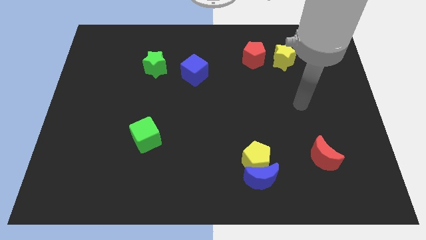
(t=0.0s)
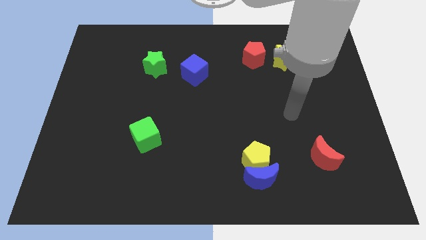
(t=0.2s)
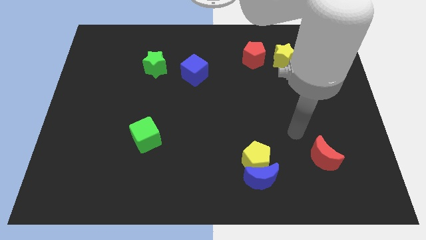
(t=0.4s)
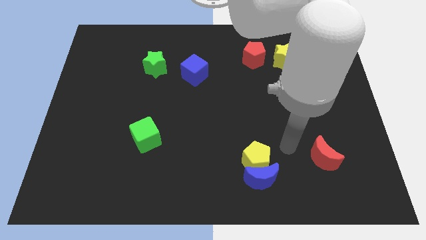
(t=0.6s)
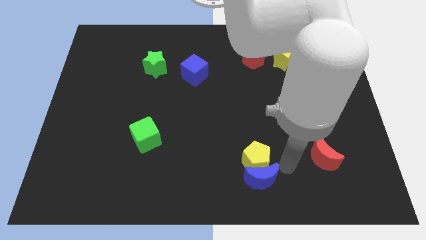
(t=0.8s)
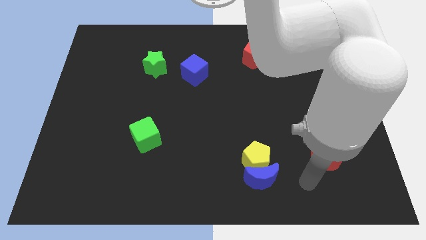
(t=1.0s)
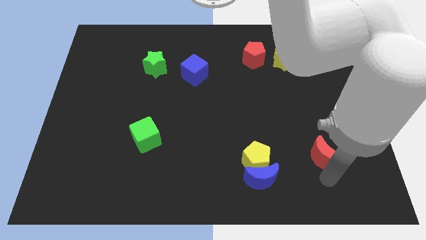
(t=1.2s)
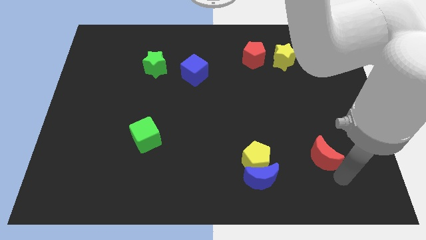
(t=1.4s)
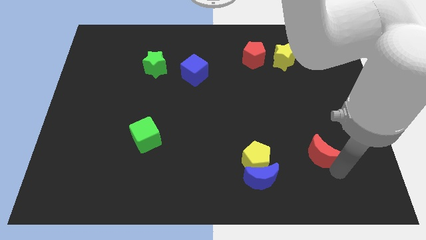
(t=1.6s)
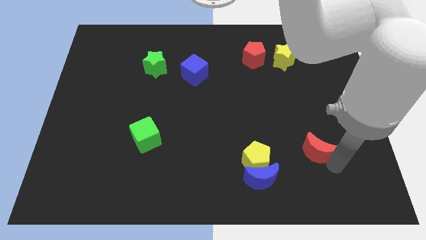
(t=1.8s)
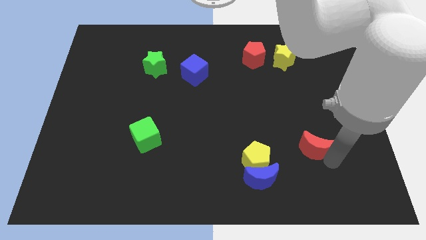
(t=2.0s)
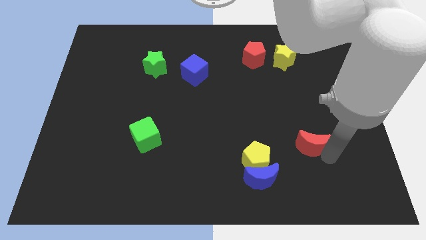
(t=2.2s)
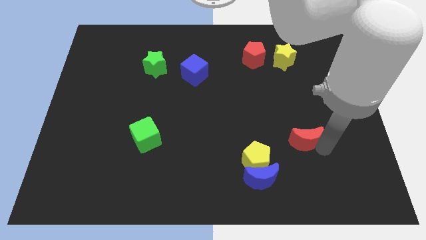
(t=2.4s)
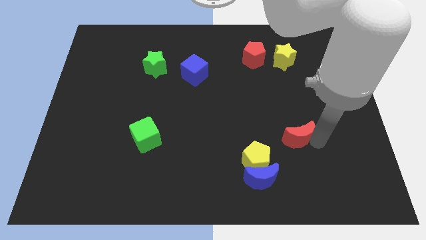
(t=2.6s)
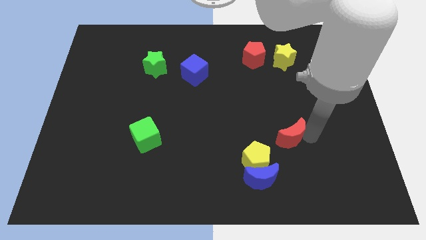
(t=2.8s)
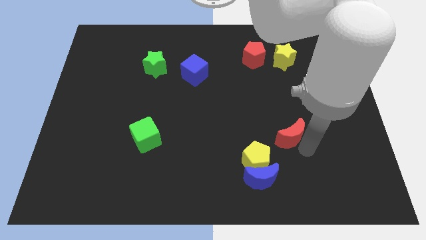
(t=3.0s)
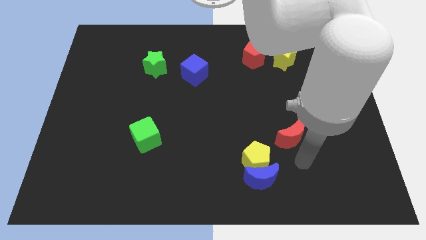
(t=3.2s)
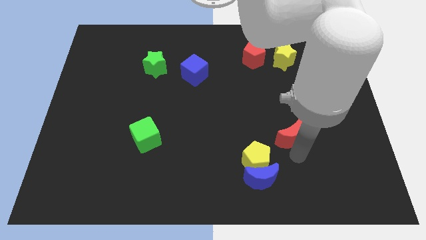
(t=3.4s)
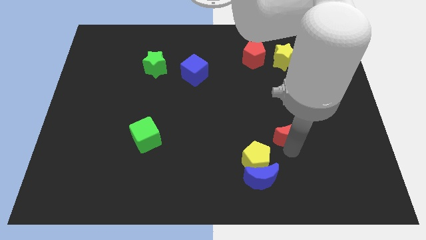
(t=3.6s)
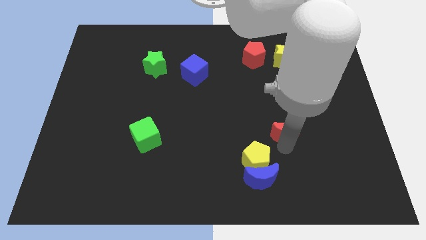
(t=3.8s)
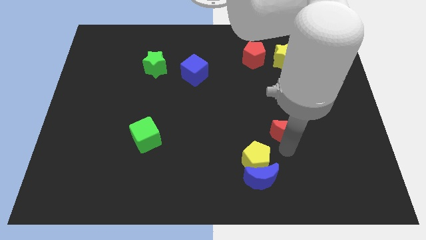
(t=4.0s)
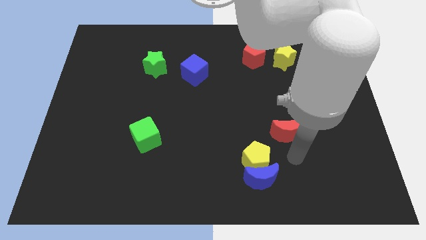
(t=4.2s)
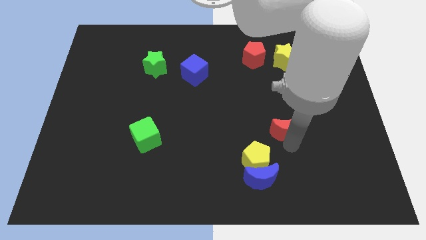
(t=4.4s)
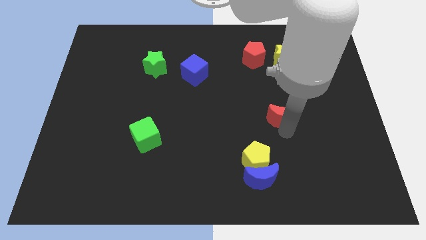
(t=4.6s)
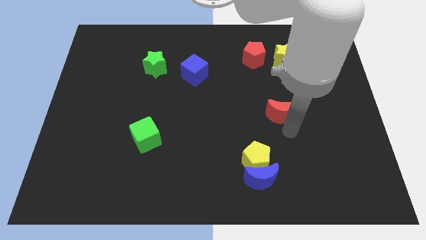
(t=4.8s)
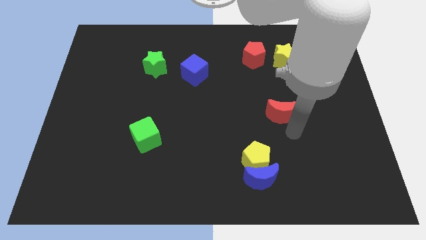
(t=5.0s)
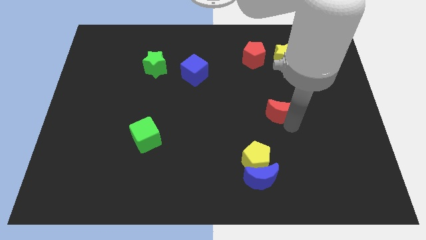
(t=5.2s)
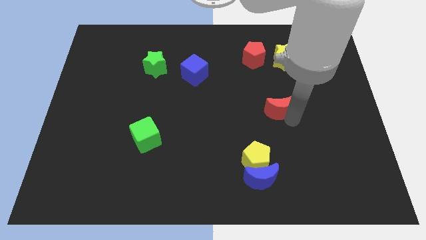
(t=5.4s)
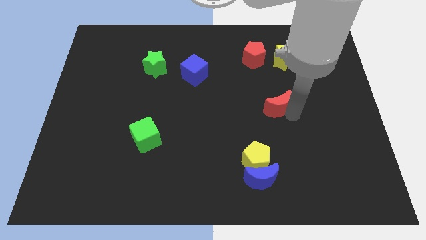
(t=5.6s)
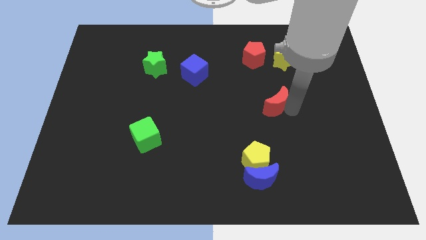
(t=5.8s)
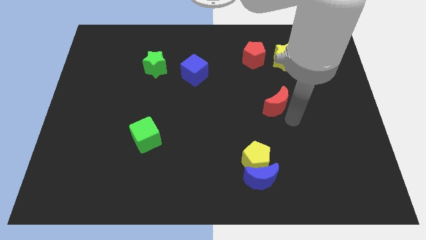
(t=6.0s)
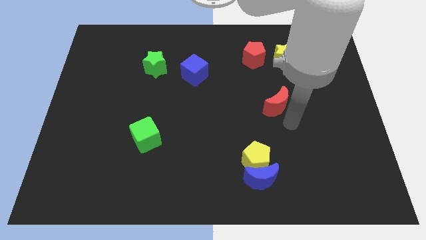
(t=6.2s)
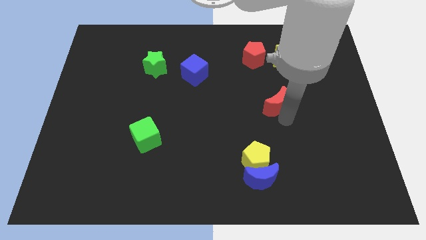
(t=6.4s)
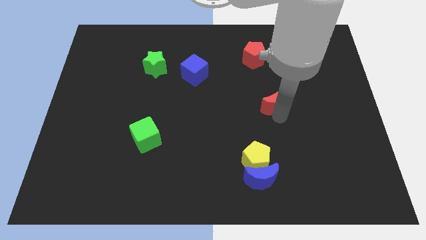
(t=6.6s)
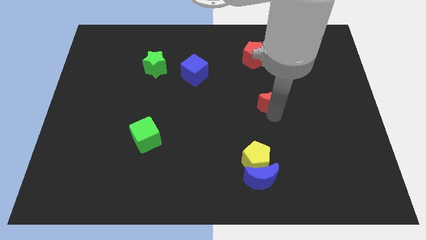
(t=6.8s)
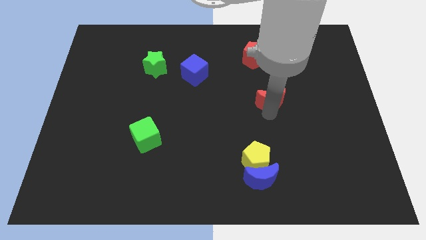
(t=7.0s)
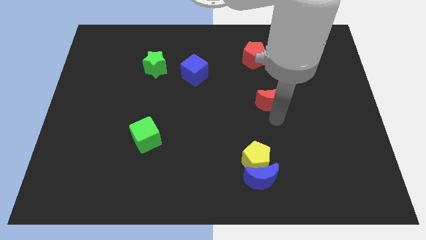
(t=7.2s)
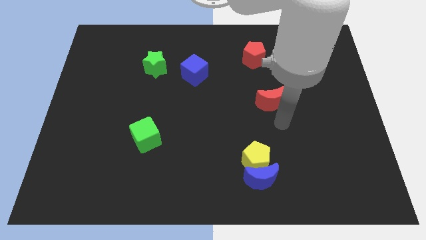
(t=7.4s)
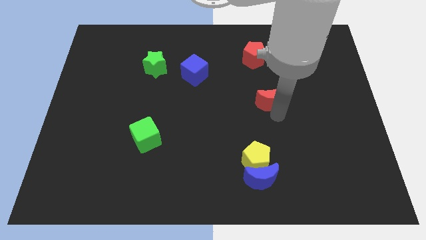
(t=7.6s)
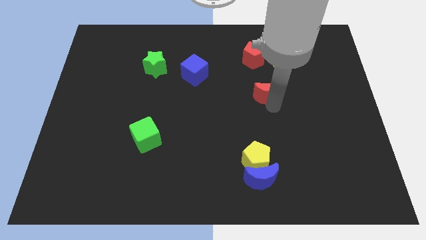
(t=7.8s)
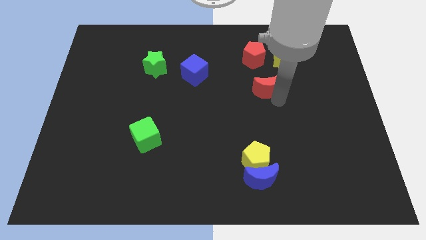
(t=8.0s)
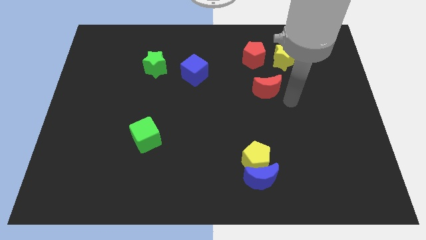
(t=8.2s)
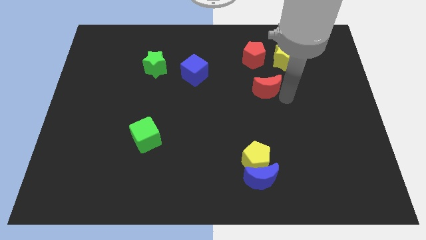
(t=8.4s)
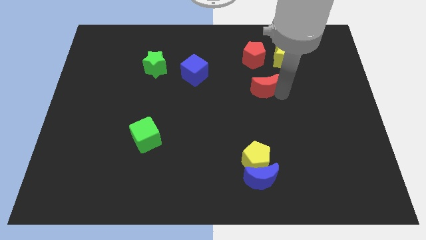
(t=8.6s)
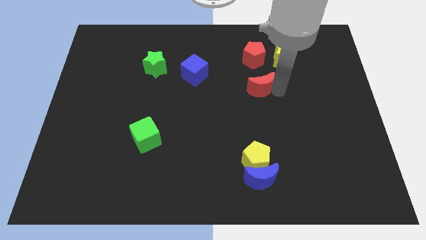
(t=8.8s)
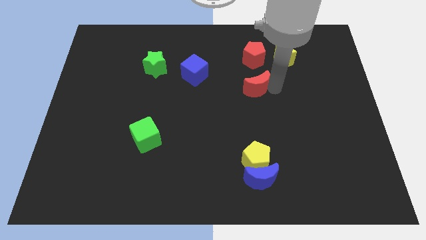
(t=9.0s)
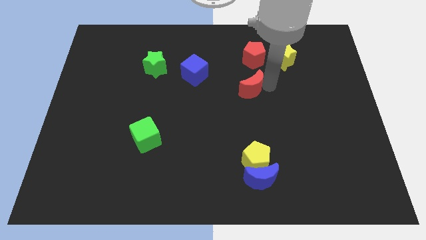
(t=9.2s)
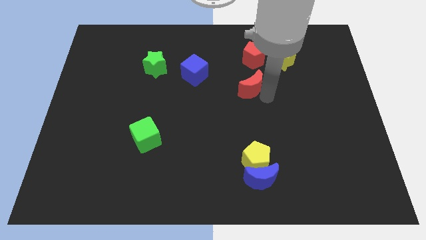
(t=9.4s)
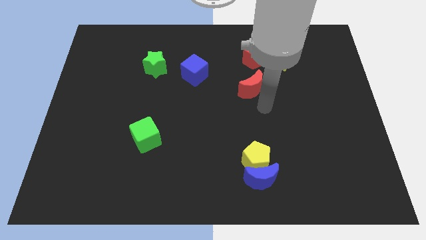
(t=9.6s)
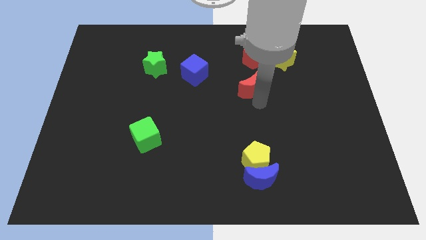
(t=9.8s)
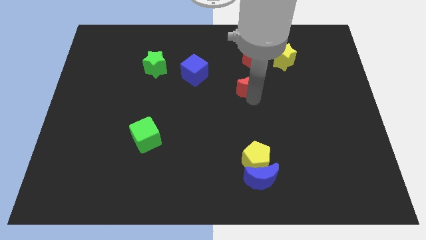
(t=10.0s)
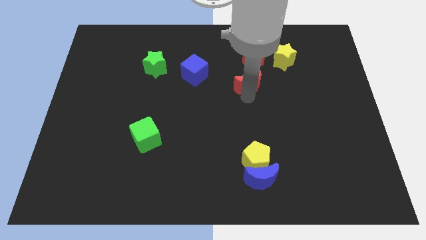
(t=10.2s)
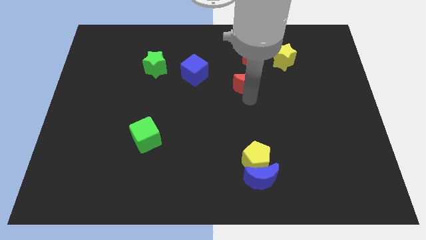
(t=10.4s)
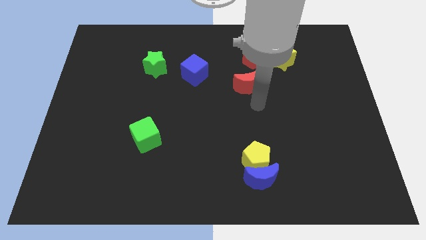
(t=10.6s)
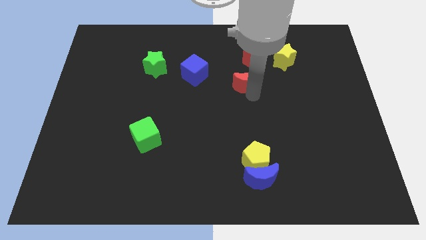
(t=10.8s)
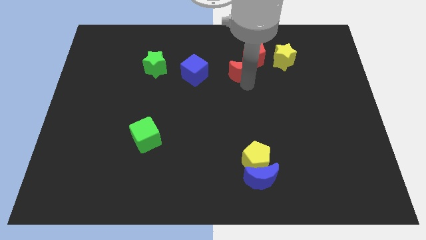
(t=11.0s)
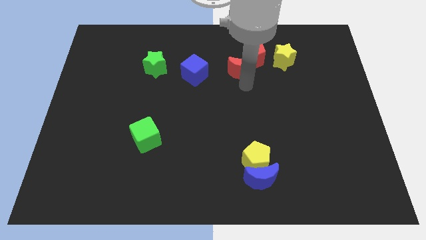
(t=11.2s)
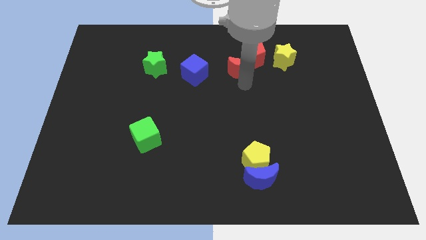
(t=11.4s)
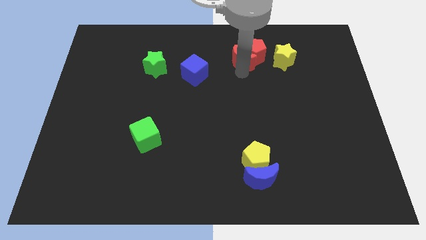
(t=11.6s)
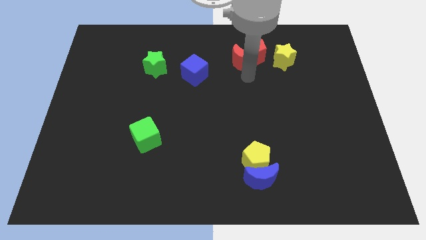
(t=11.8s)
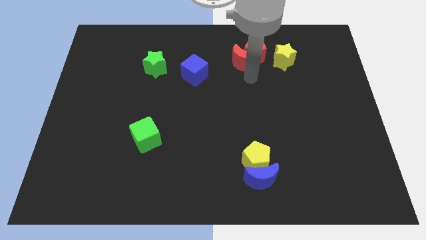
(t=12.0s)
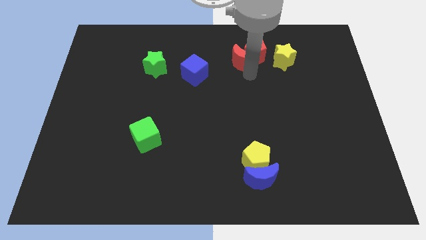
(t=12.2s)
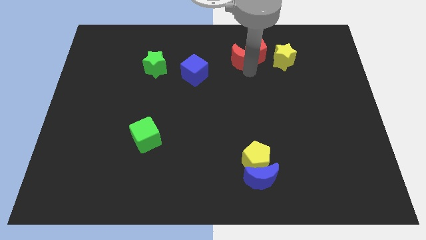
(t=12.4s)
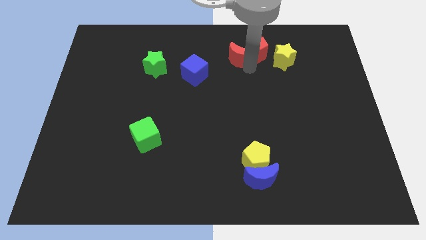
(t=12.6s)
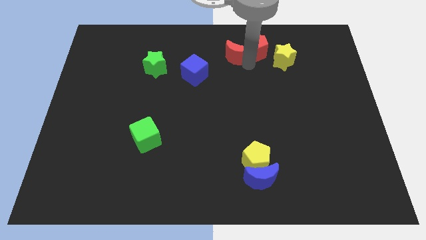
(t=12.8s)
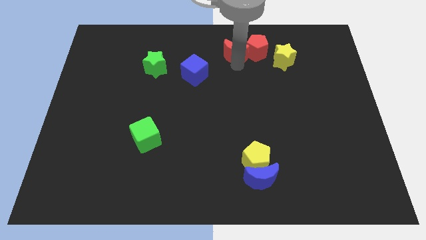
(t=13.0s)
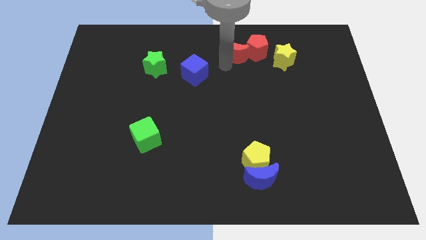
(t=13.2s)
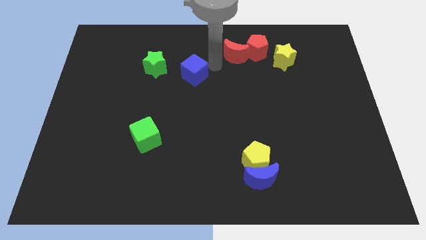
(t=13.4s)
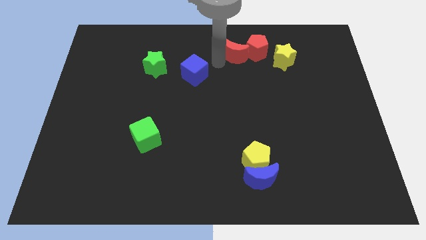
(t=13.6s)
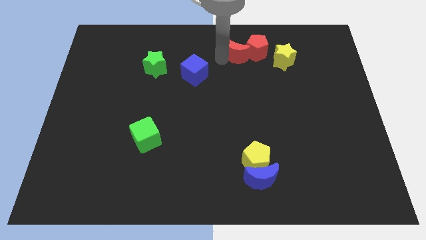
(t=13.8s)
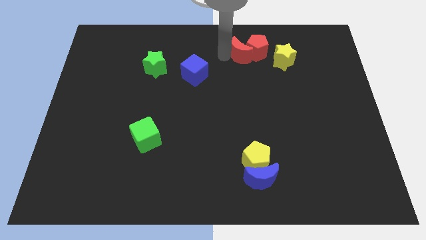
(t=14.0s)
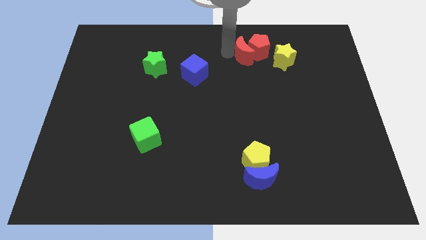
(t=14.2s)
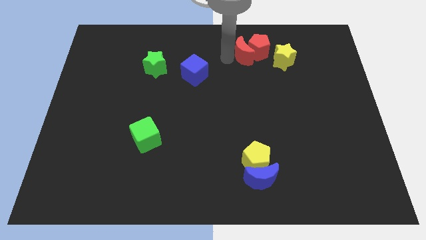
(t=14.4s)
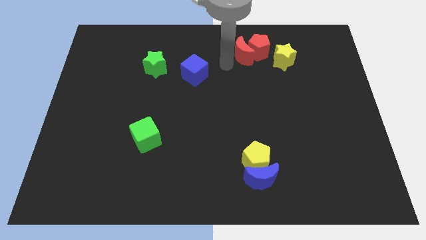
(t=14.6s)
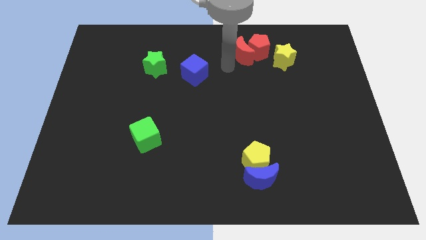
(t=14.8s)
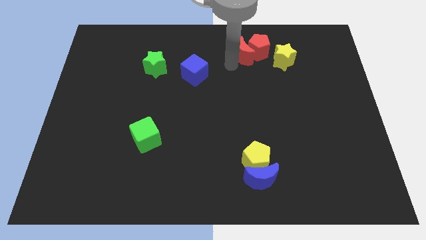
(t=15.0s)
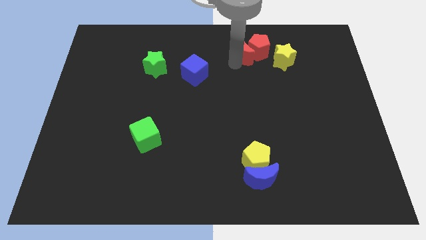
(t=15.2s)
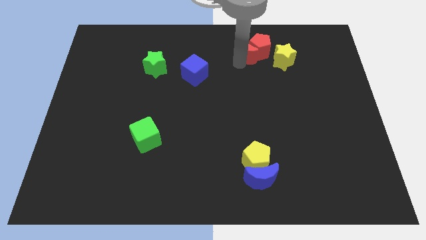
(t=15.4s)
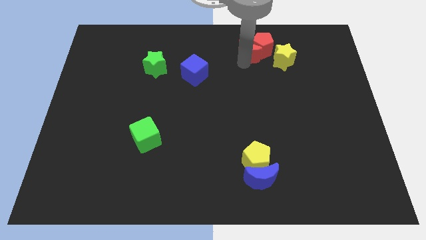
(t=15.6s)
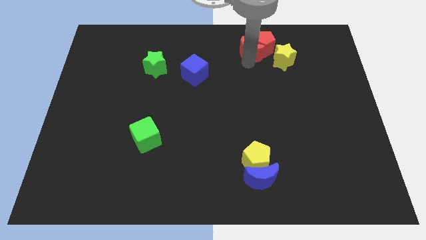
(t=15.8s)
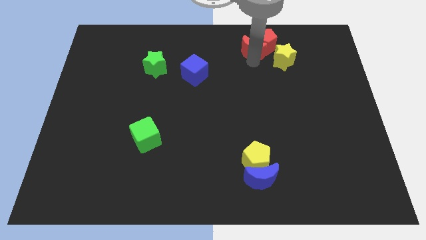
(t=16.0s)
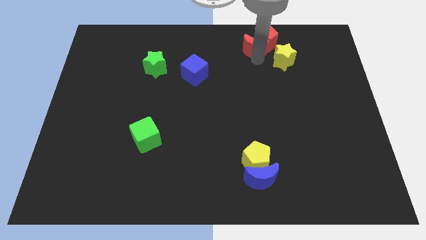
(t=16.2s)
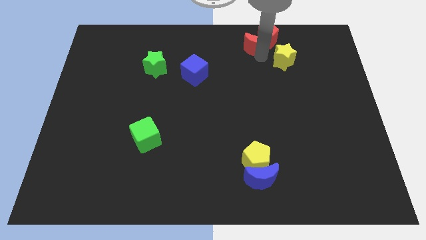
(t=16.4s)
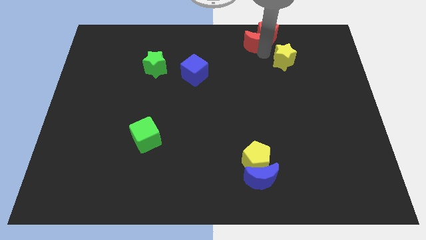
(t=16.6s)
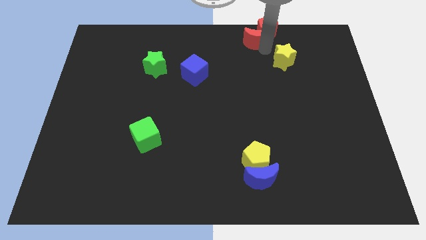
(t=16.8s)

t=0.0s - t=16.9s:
push the red moon to the towards your base
